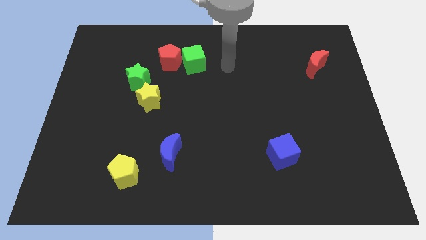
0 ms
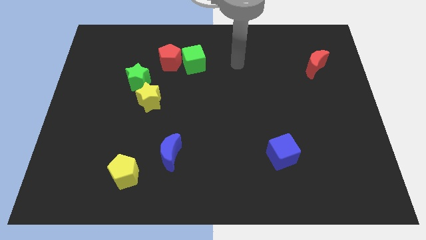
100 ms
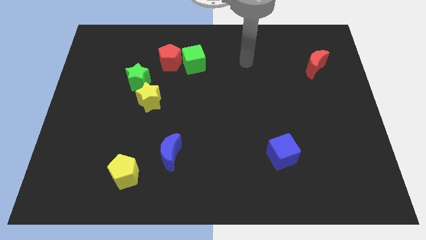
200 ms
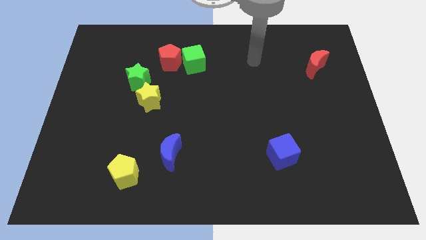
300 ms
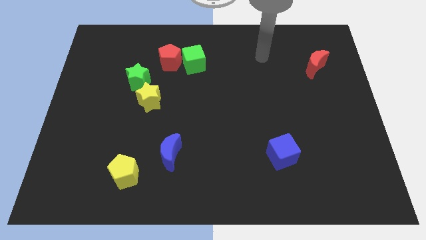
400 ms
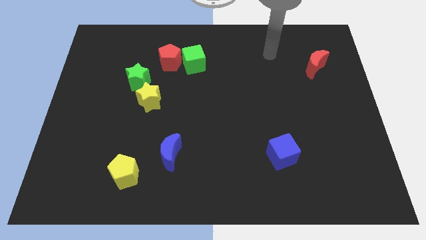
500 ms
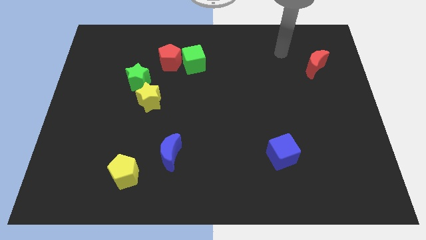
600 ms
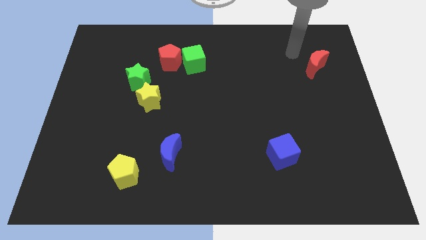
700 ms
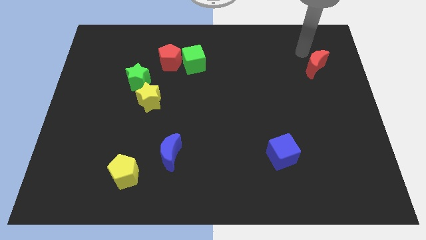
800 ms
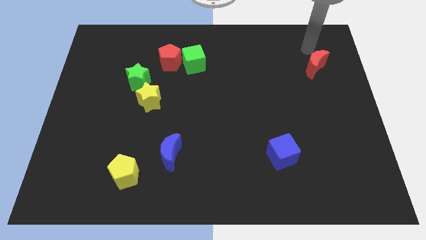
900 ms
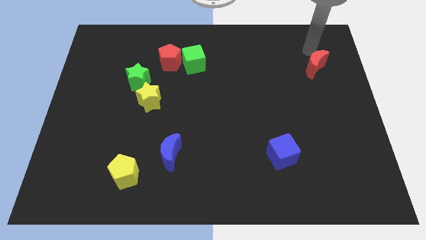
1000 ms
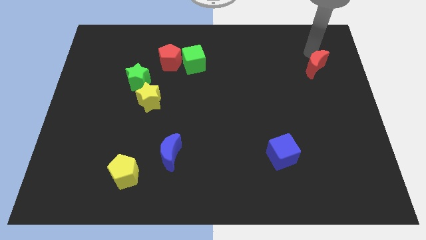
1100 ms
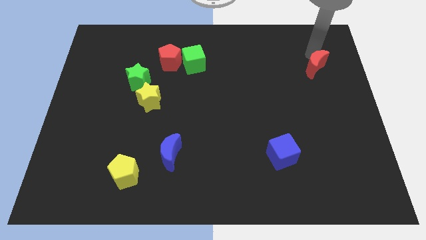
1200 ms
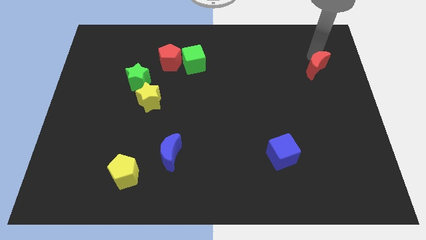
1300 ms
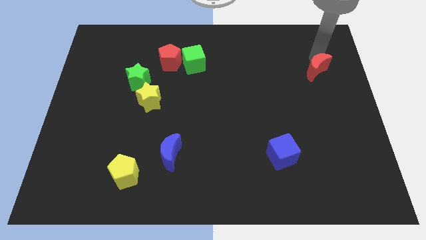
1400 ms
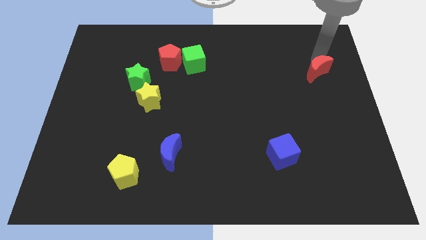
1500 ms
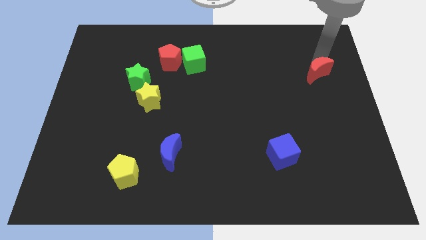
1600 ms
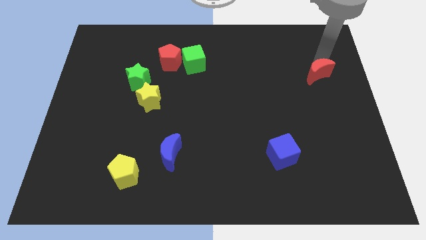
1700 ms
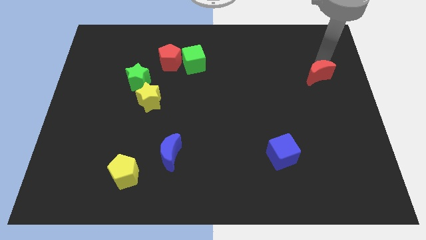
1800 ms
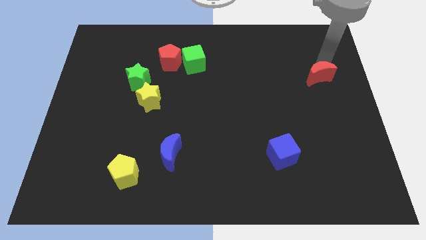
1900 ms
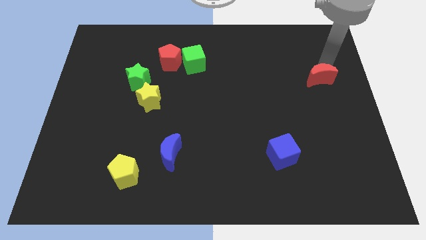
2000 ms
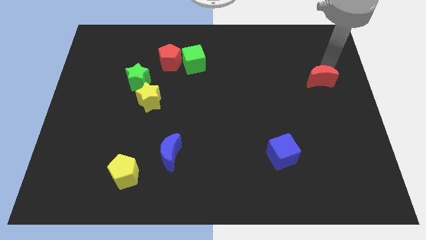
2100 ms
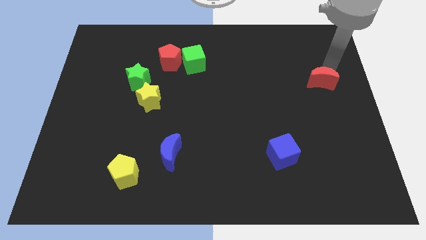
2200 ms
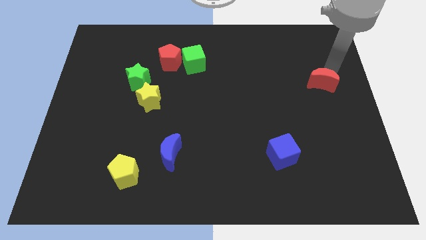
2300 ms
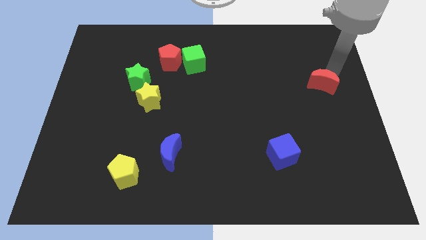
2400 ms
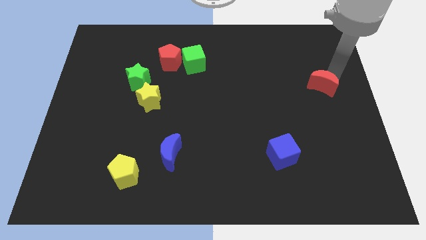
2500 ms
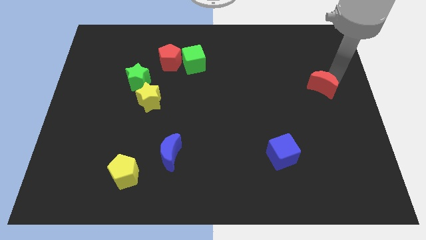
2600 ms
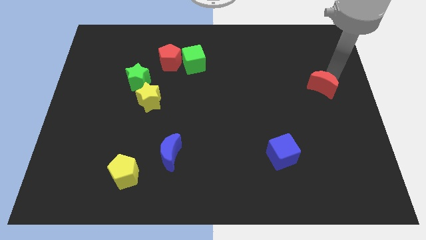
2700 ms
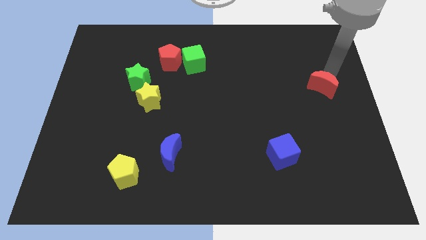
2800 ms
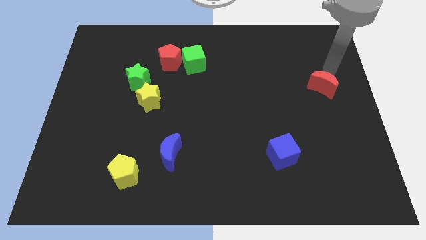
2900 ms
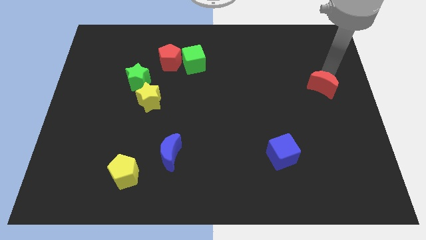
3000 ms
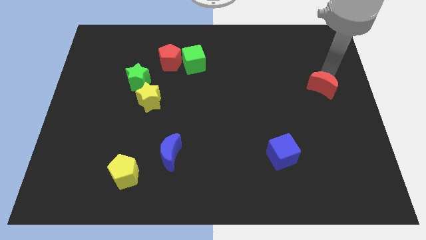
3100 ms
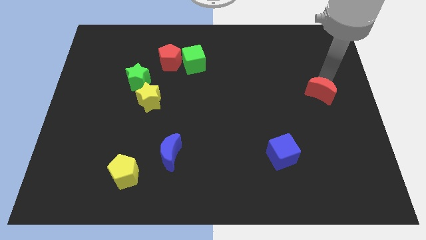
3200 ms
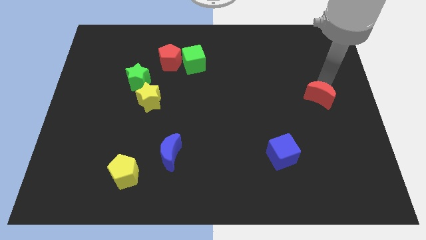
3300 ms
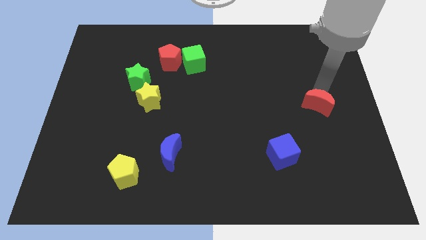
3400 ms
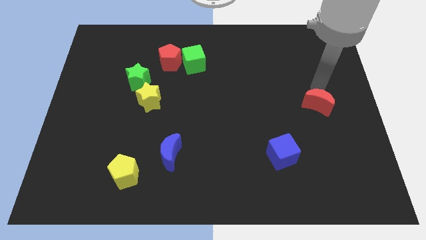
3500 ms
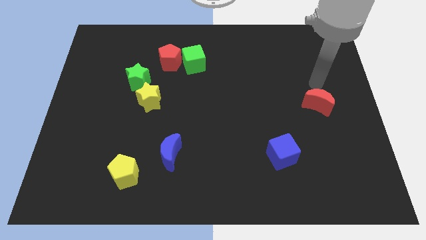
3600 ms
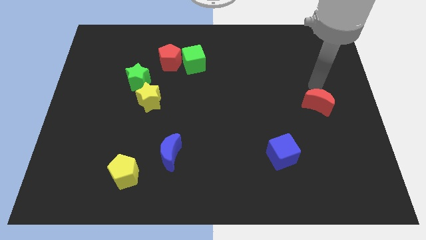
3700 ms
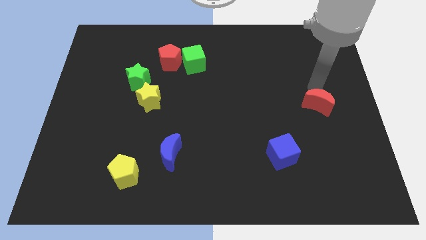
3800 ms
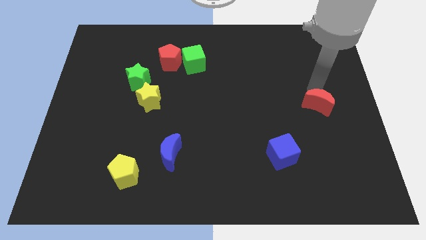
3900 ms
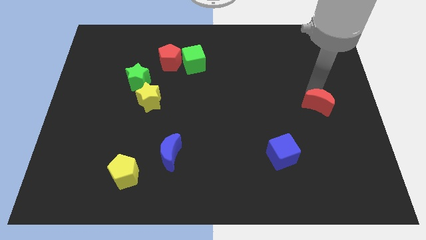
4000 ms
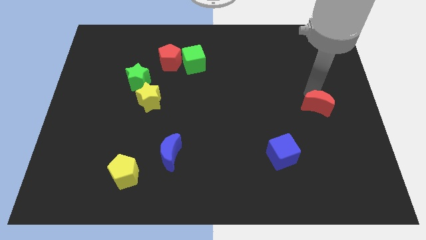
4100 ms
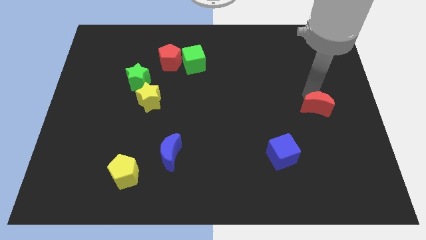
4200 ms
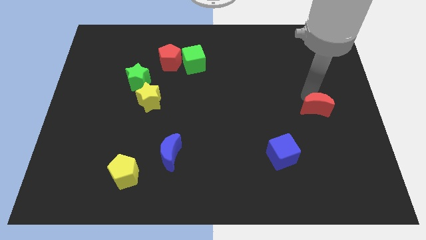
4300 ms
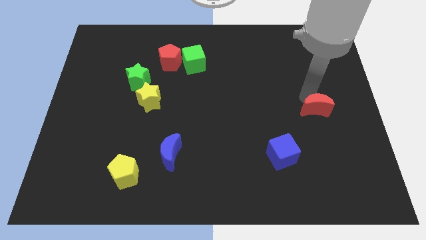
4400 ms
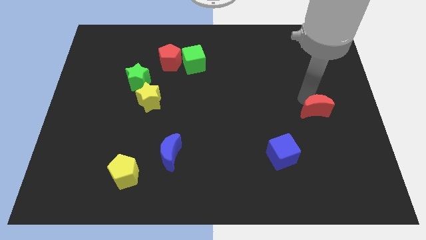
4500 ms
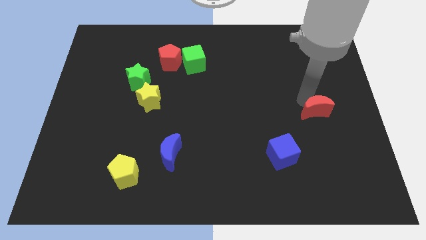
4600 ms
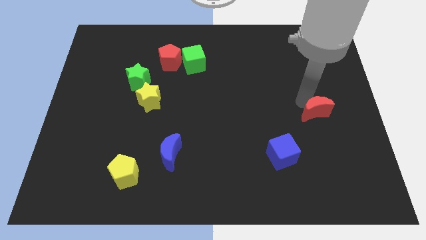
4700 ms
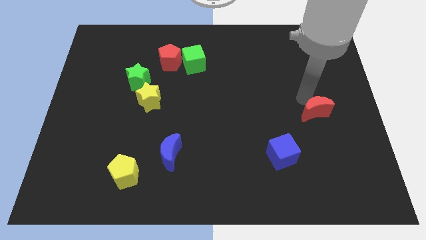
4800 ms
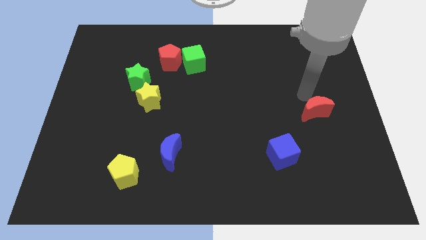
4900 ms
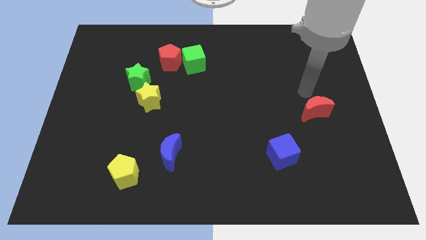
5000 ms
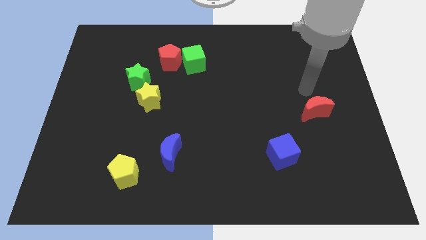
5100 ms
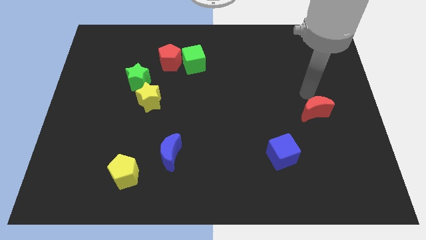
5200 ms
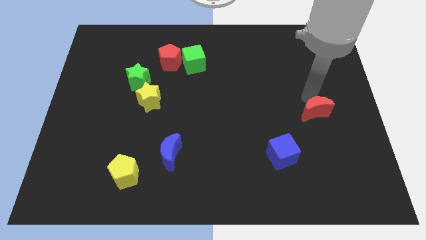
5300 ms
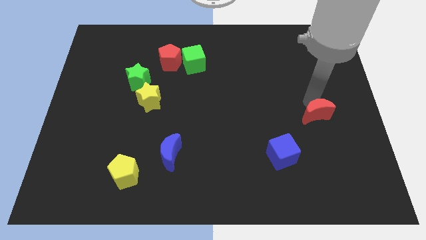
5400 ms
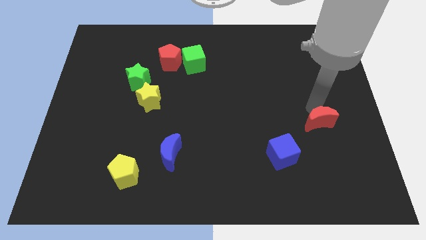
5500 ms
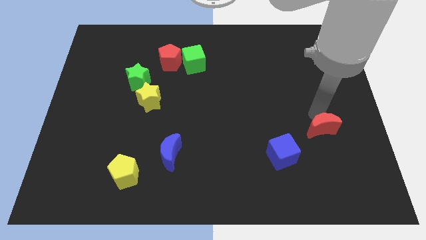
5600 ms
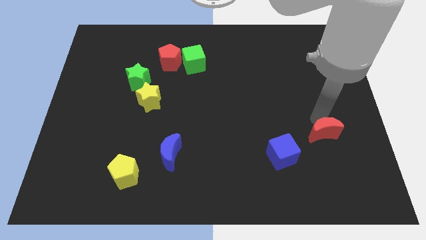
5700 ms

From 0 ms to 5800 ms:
push the red moon downwards

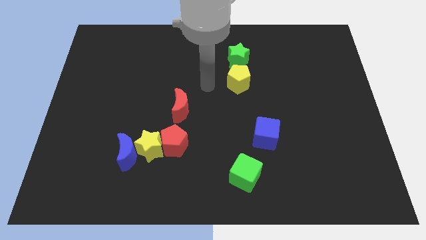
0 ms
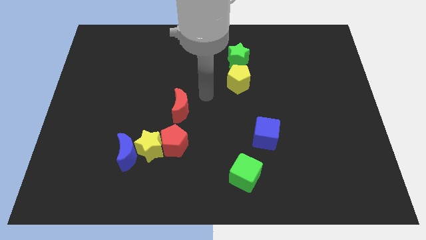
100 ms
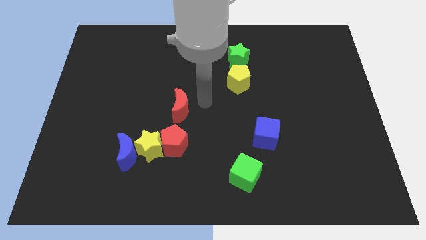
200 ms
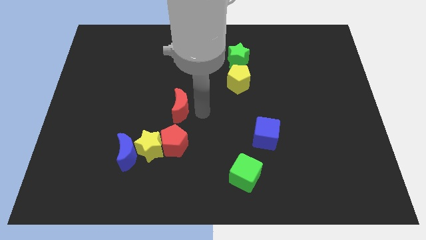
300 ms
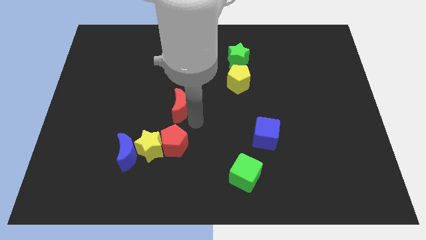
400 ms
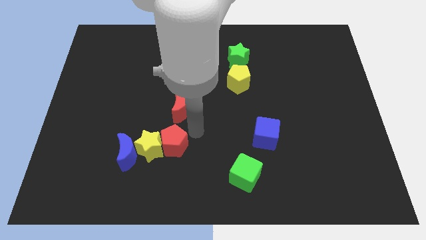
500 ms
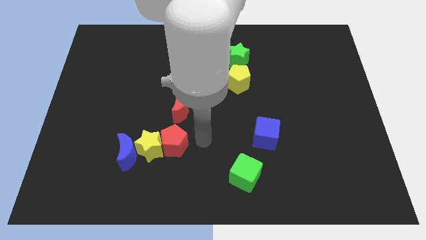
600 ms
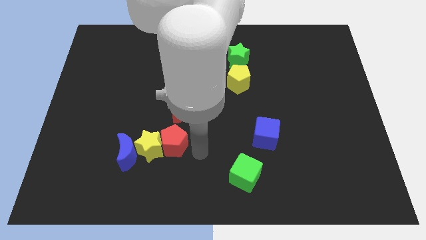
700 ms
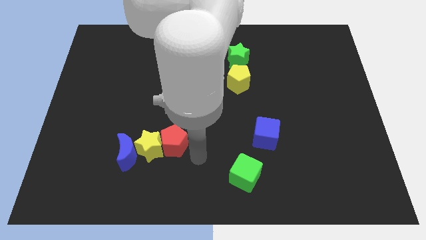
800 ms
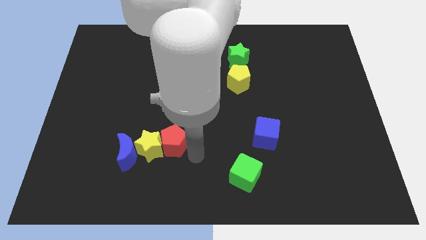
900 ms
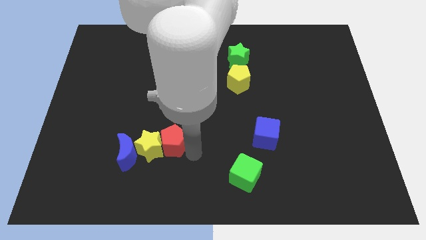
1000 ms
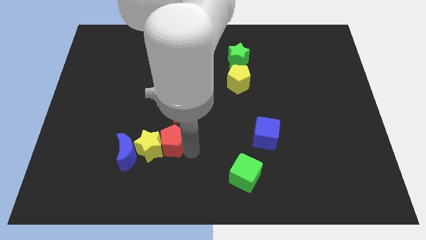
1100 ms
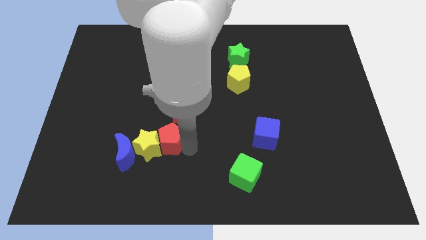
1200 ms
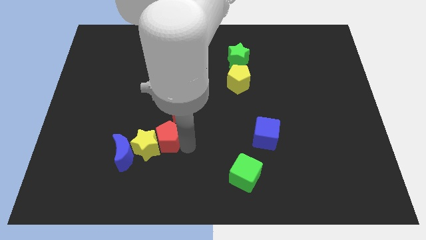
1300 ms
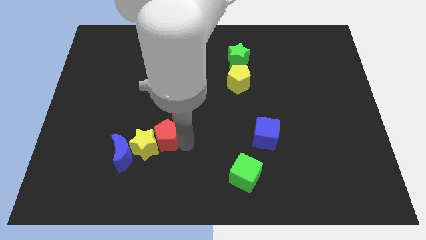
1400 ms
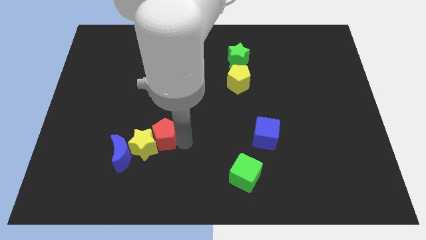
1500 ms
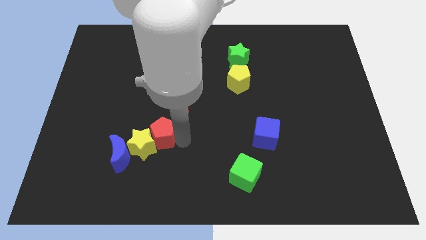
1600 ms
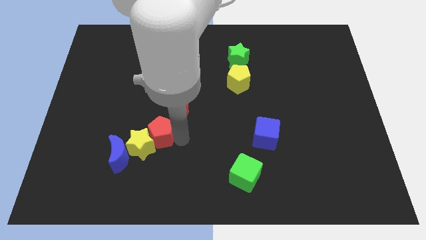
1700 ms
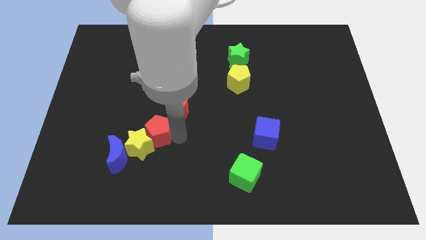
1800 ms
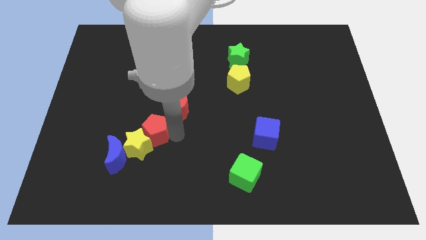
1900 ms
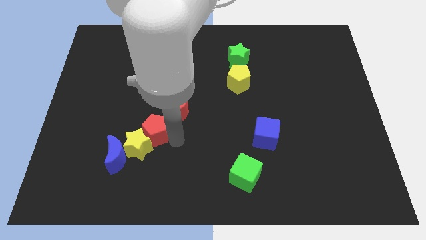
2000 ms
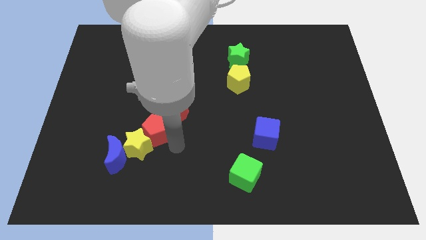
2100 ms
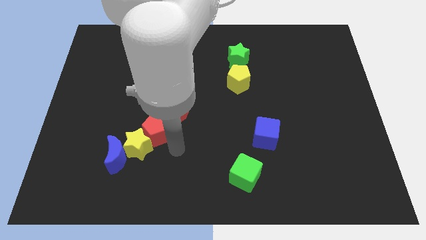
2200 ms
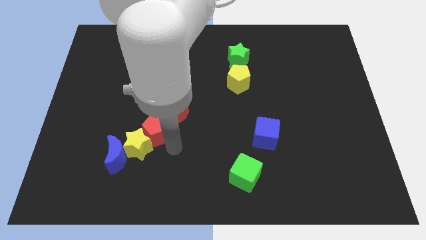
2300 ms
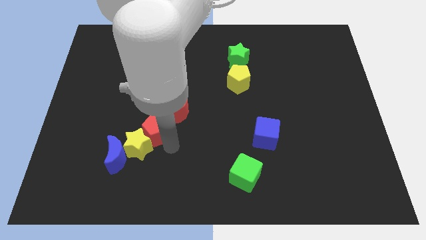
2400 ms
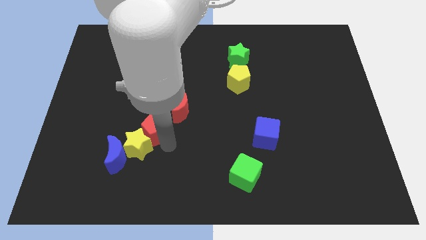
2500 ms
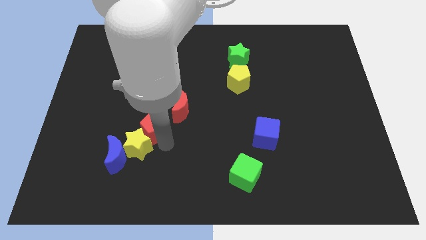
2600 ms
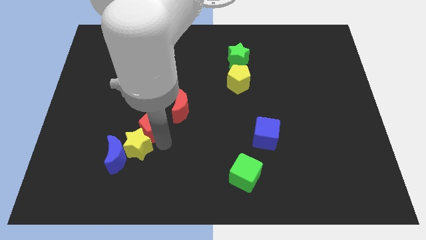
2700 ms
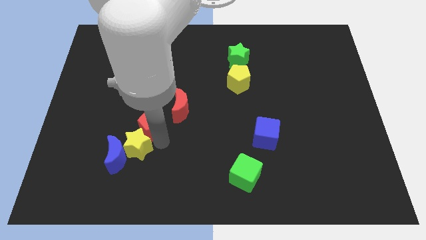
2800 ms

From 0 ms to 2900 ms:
push the red pentagon slightly up and to the left
